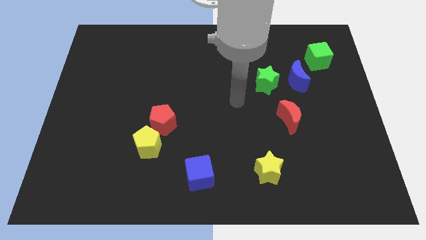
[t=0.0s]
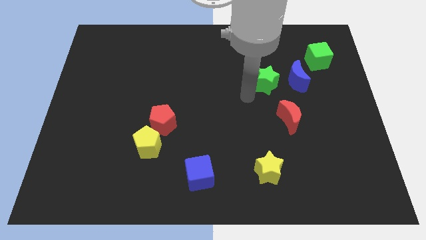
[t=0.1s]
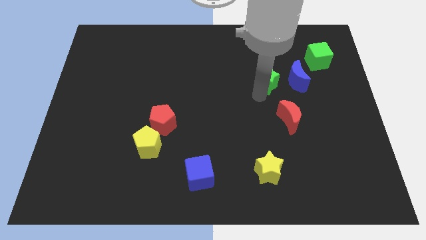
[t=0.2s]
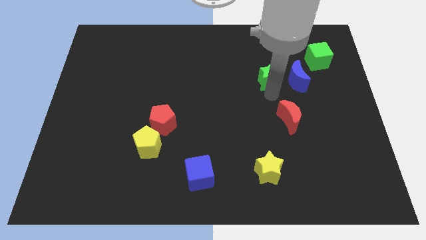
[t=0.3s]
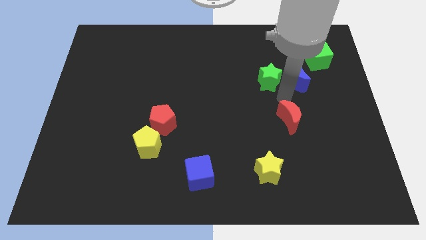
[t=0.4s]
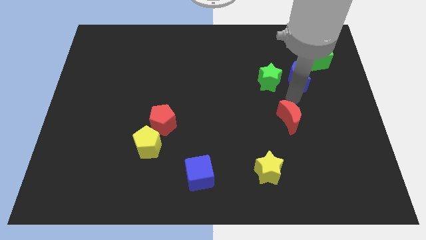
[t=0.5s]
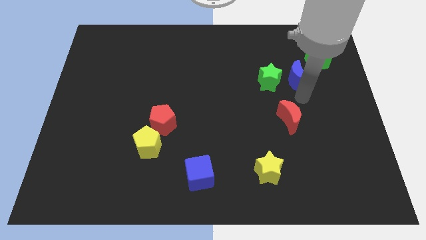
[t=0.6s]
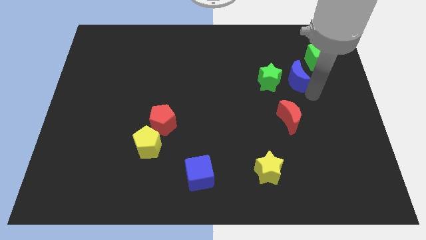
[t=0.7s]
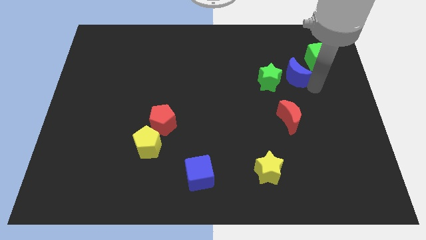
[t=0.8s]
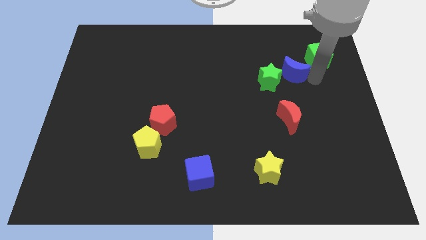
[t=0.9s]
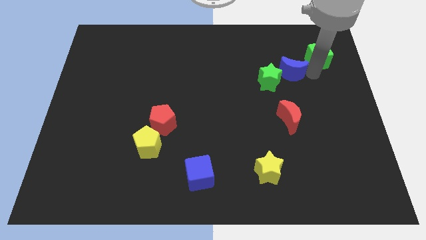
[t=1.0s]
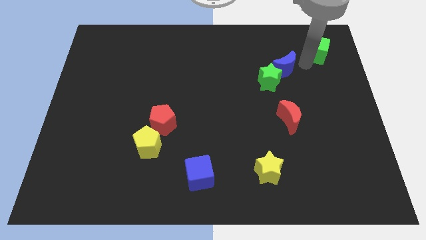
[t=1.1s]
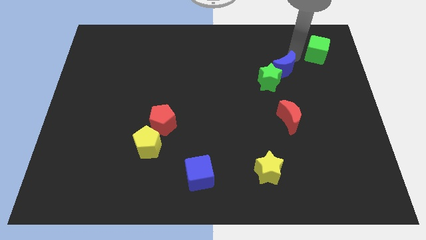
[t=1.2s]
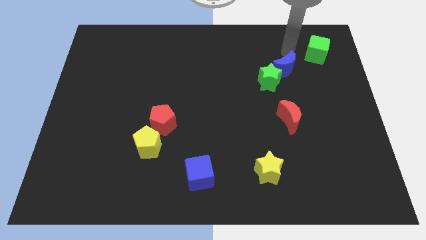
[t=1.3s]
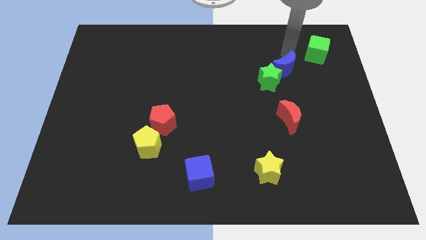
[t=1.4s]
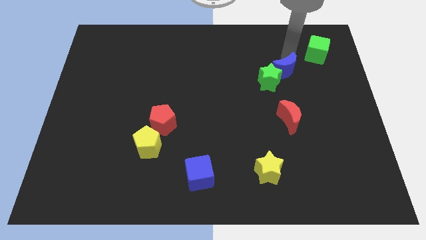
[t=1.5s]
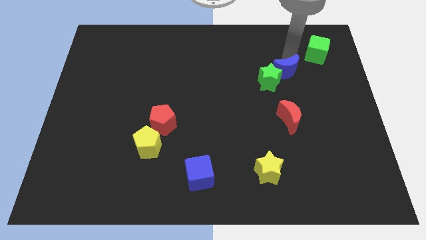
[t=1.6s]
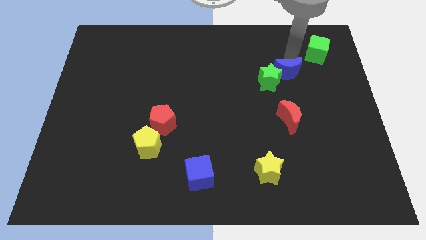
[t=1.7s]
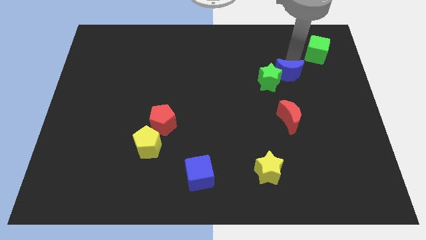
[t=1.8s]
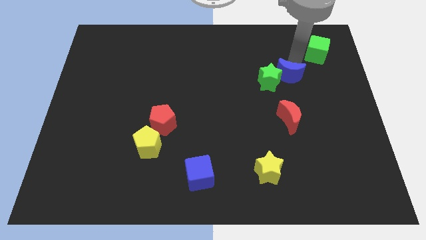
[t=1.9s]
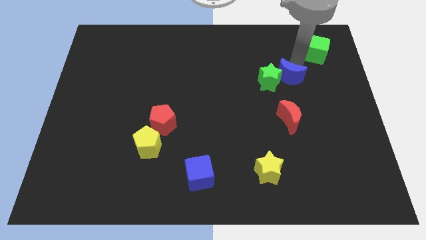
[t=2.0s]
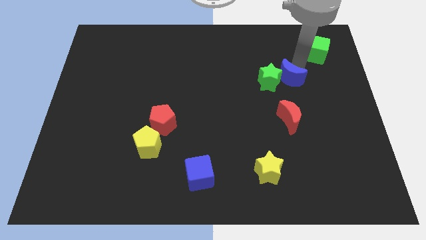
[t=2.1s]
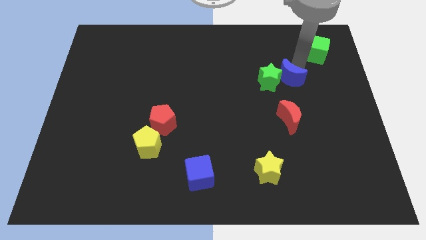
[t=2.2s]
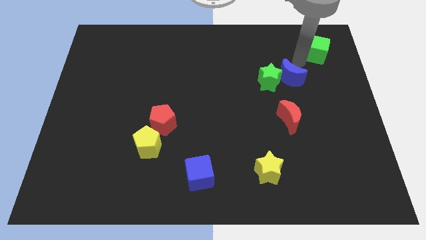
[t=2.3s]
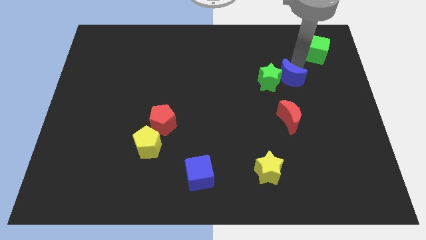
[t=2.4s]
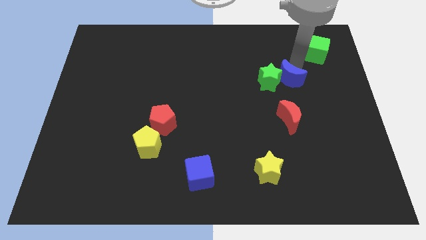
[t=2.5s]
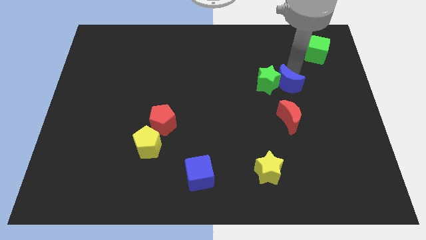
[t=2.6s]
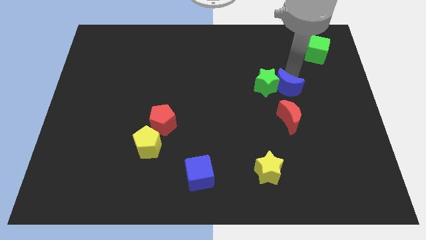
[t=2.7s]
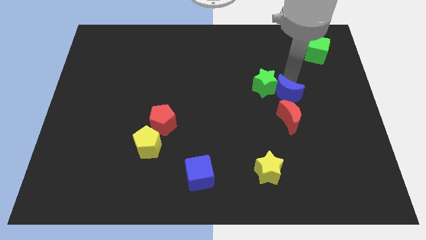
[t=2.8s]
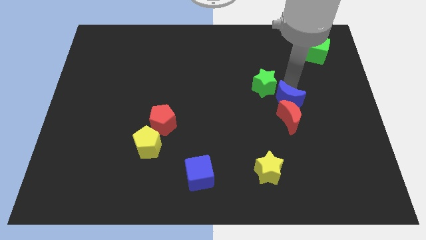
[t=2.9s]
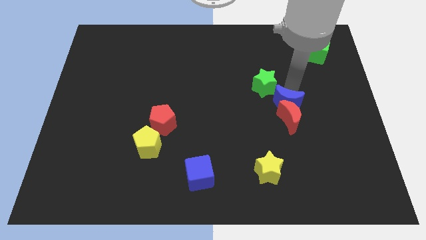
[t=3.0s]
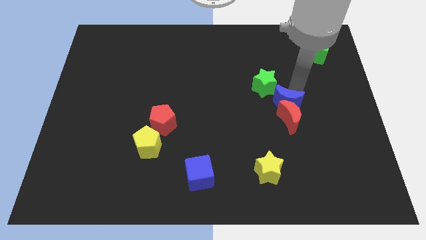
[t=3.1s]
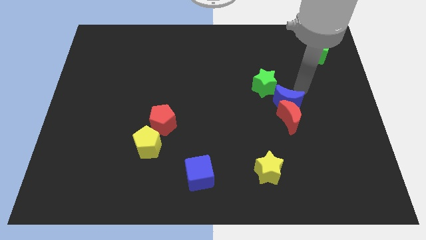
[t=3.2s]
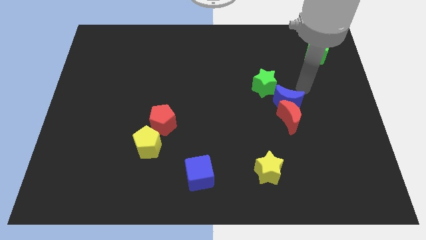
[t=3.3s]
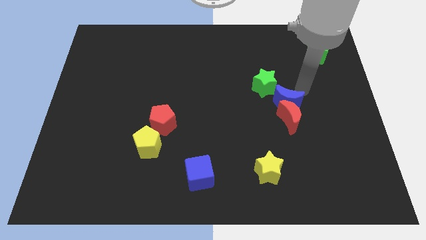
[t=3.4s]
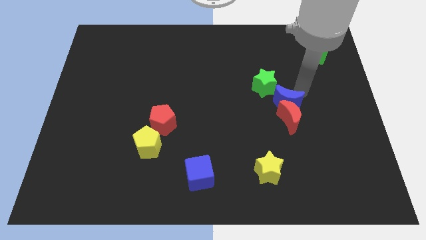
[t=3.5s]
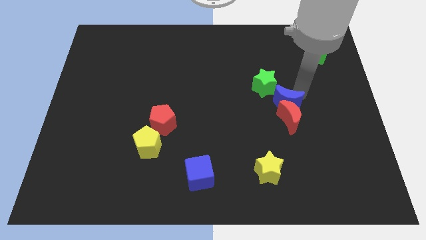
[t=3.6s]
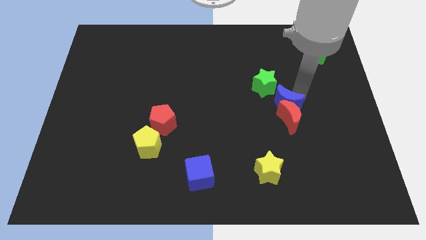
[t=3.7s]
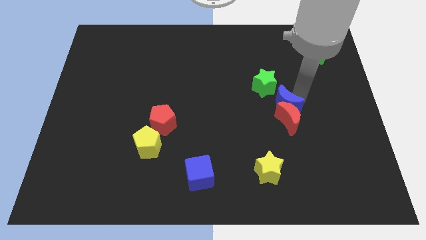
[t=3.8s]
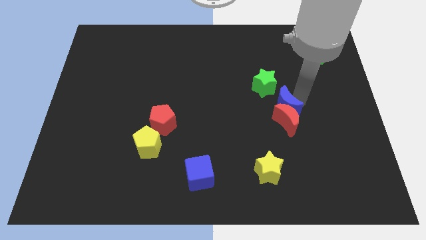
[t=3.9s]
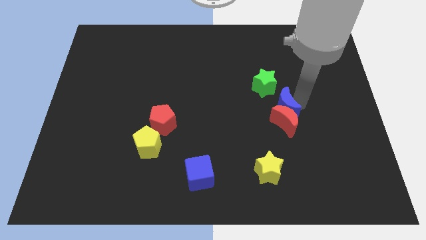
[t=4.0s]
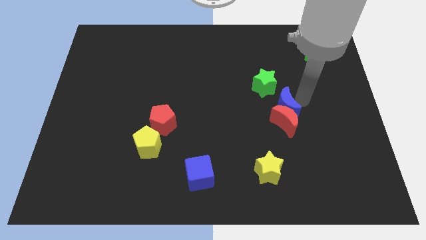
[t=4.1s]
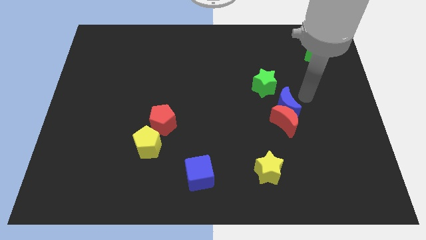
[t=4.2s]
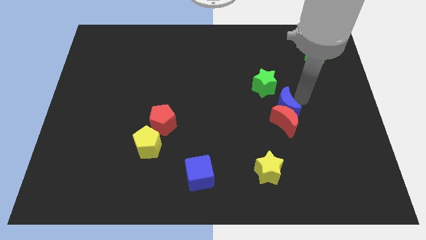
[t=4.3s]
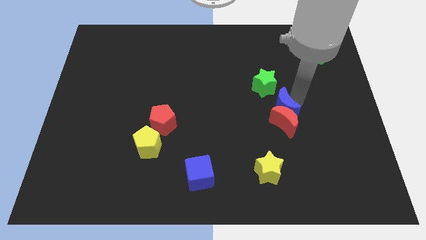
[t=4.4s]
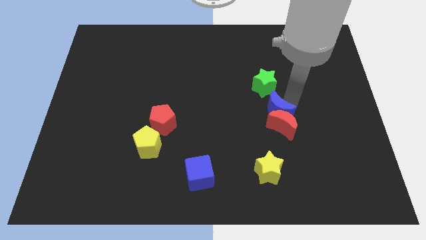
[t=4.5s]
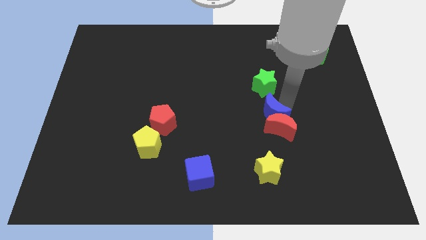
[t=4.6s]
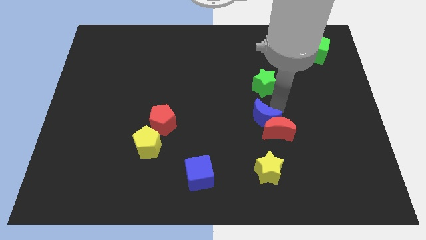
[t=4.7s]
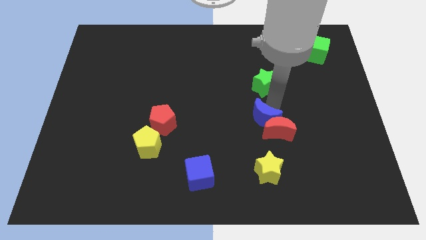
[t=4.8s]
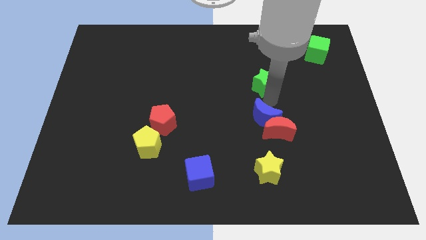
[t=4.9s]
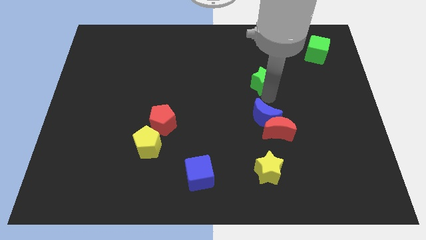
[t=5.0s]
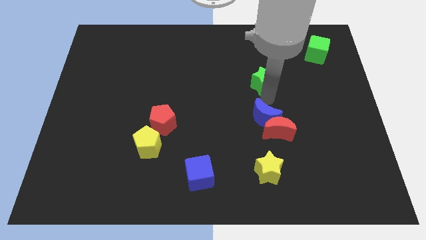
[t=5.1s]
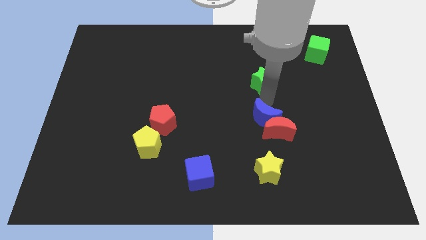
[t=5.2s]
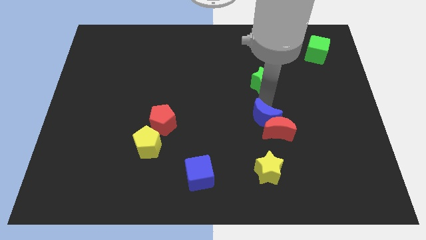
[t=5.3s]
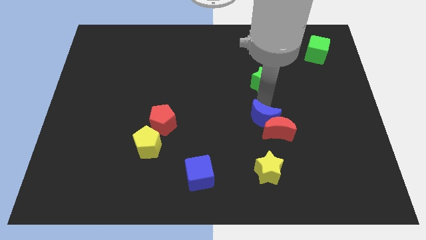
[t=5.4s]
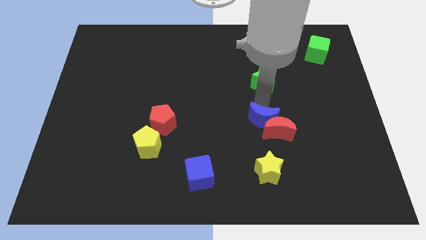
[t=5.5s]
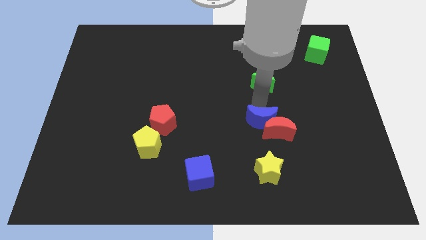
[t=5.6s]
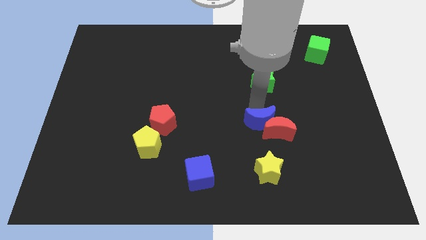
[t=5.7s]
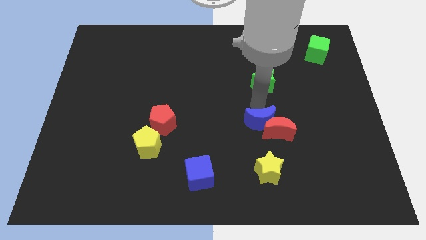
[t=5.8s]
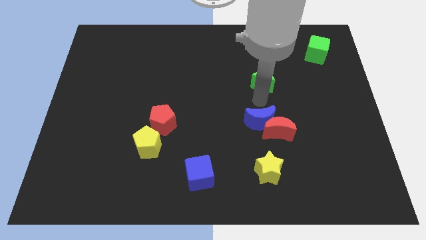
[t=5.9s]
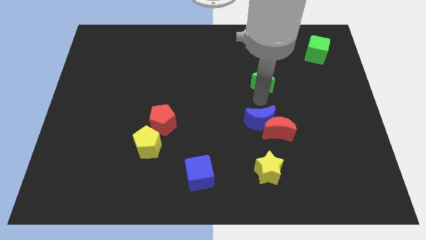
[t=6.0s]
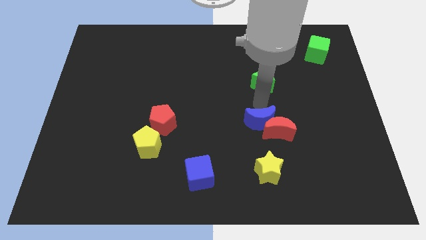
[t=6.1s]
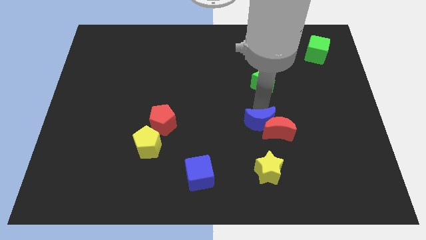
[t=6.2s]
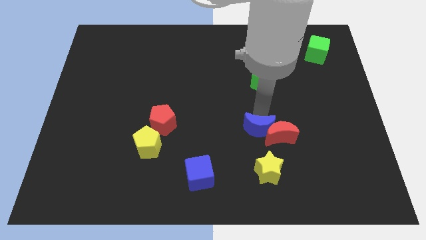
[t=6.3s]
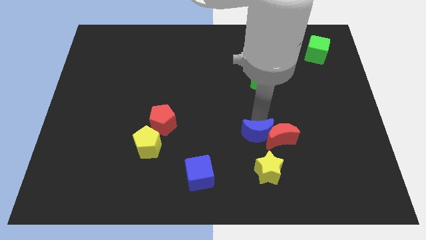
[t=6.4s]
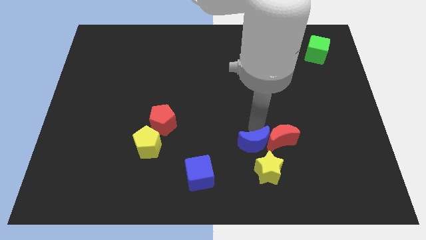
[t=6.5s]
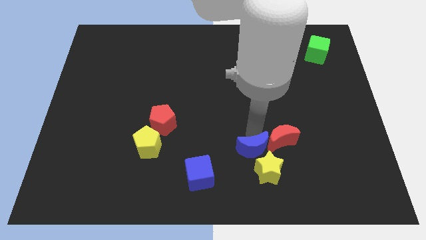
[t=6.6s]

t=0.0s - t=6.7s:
slide the blue moon towards the yellow star

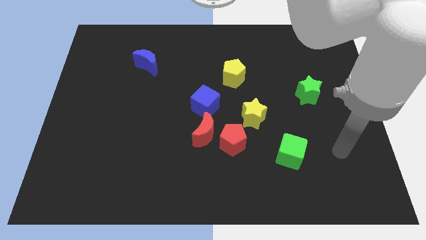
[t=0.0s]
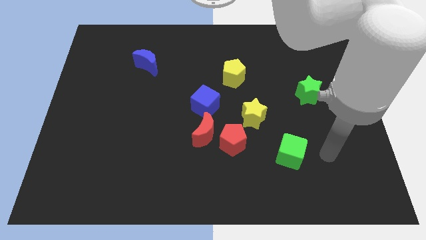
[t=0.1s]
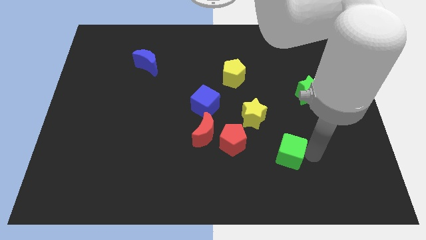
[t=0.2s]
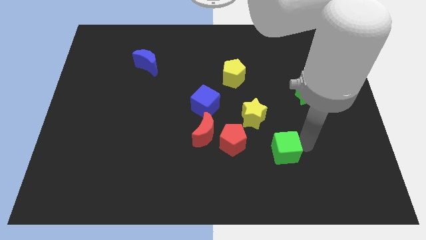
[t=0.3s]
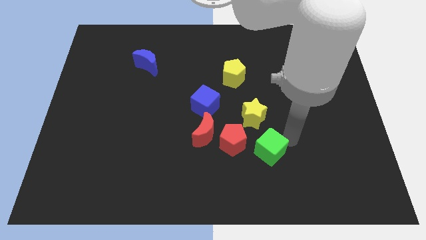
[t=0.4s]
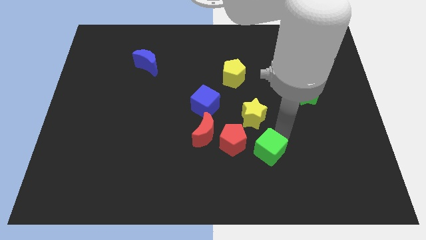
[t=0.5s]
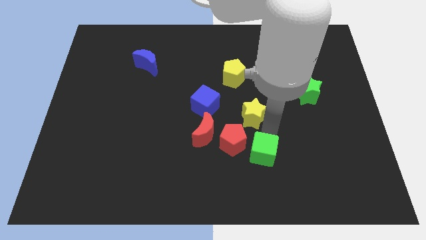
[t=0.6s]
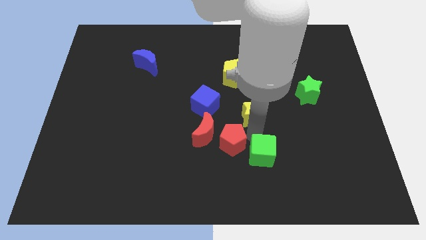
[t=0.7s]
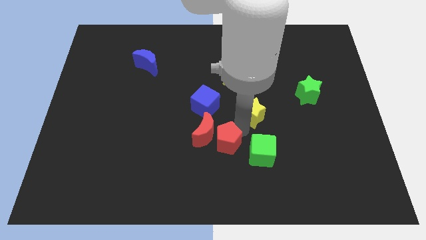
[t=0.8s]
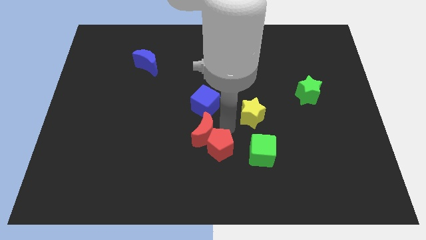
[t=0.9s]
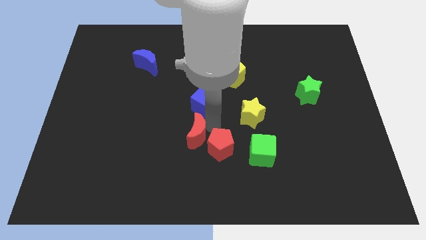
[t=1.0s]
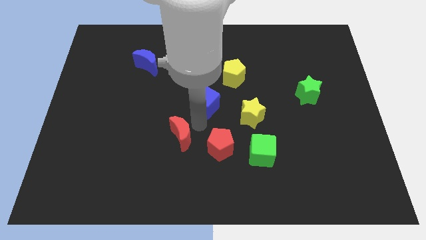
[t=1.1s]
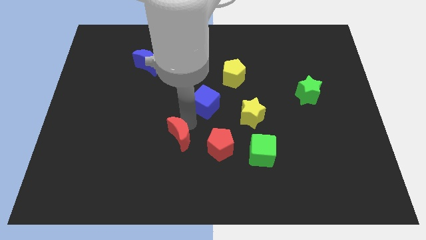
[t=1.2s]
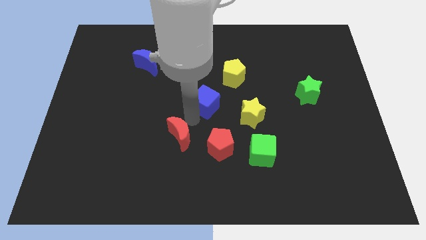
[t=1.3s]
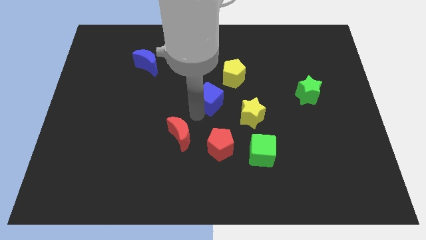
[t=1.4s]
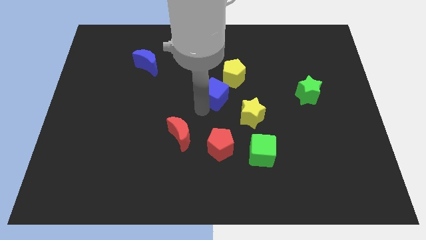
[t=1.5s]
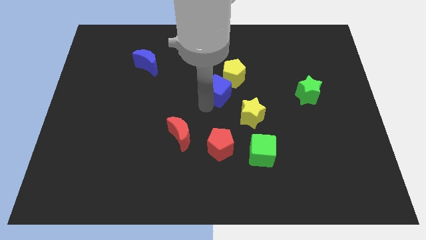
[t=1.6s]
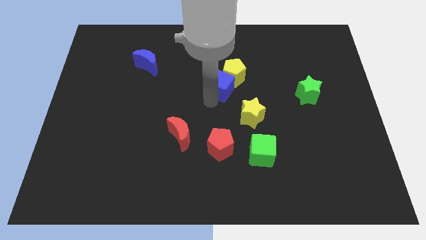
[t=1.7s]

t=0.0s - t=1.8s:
move the blue cube close to the yellow pentagon
